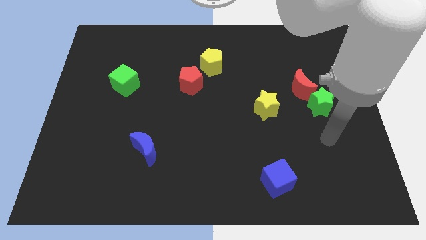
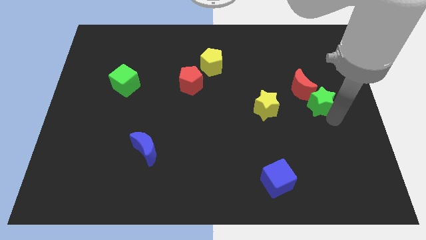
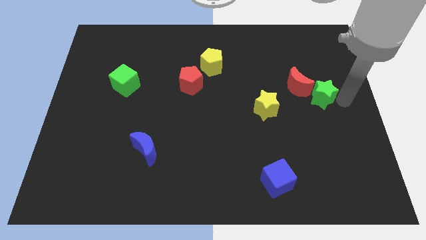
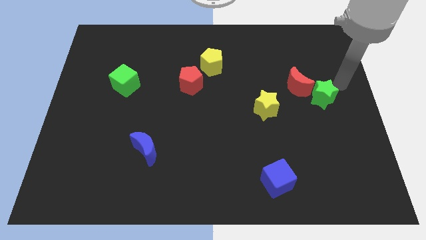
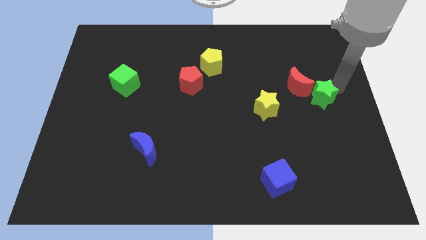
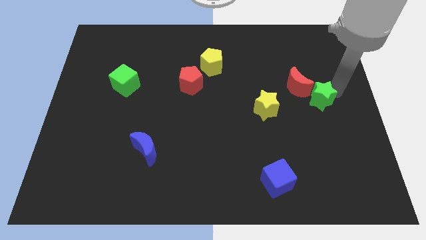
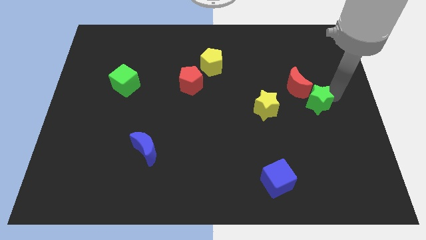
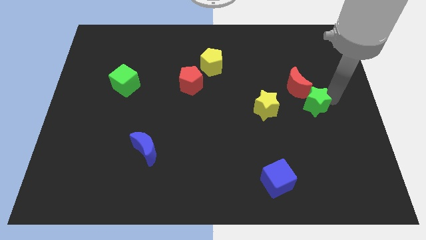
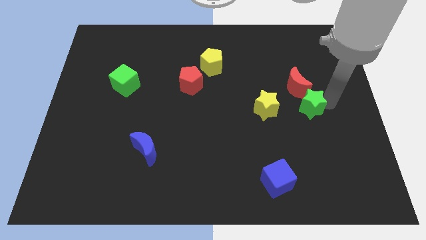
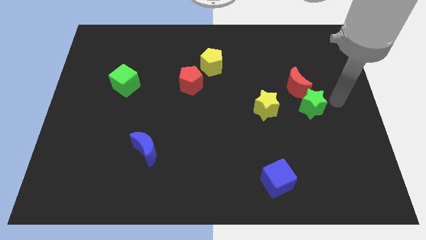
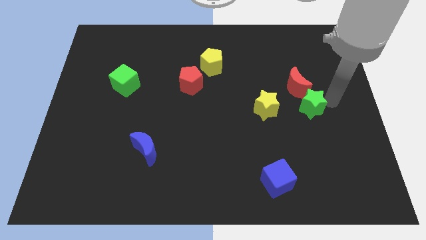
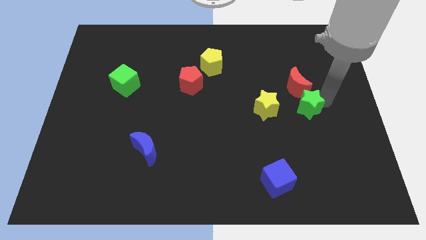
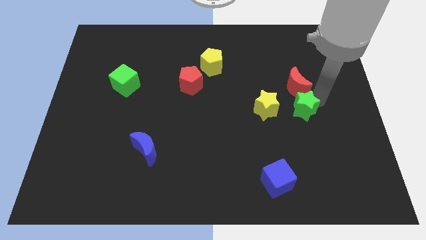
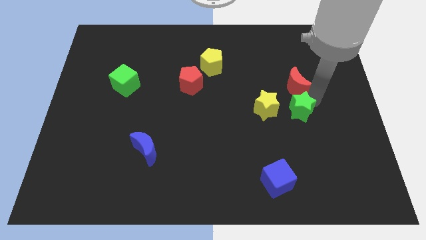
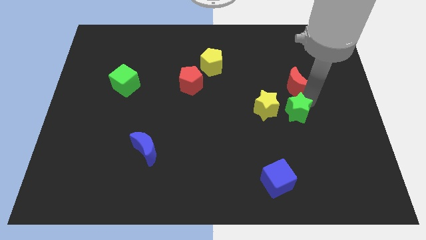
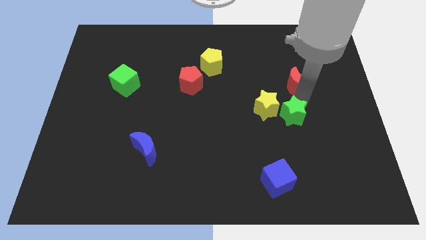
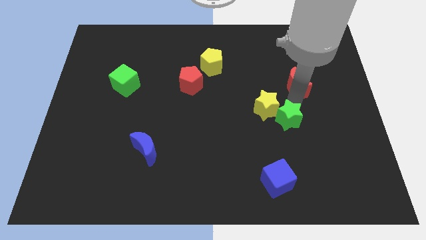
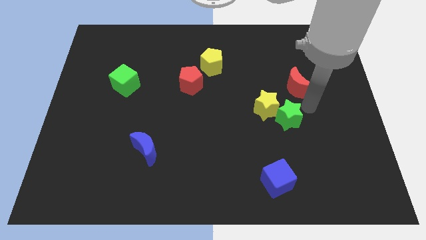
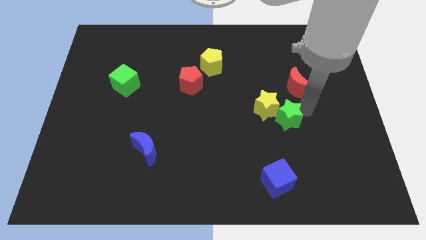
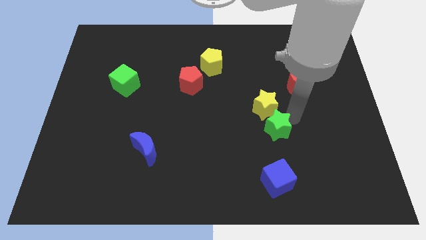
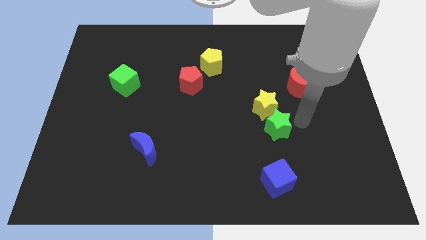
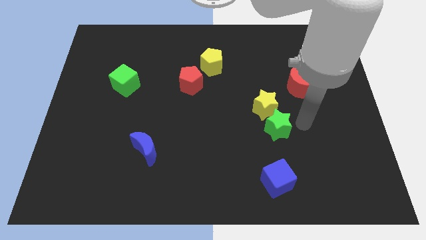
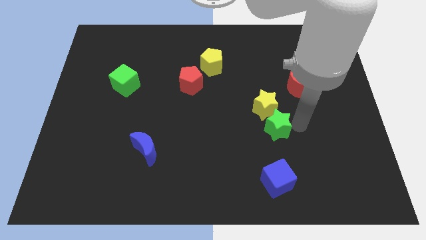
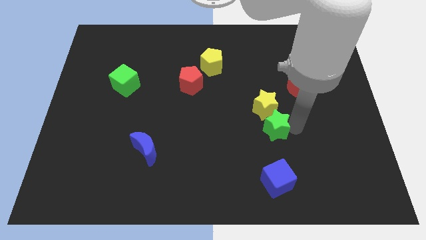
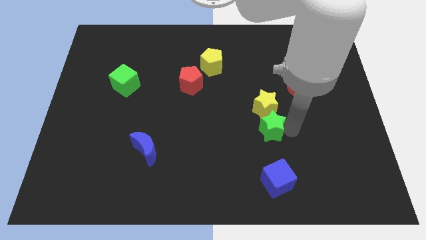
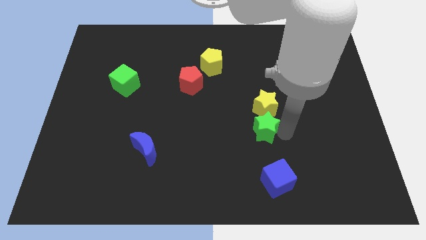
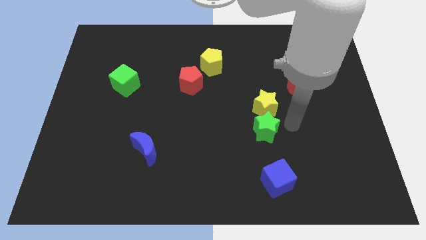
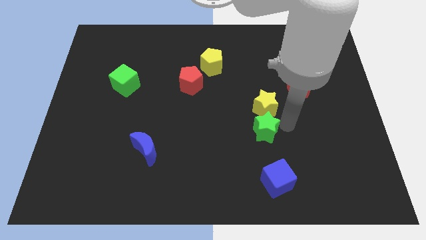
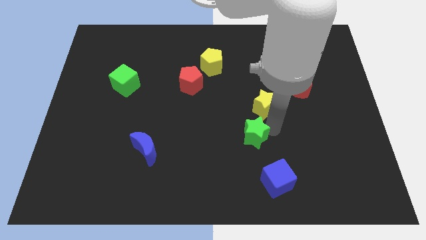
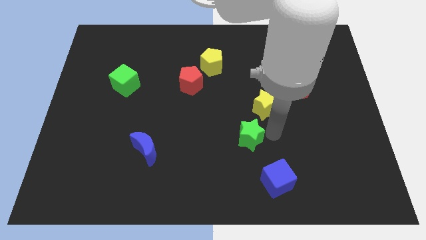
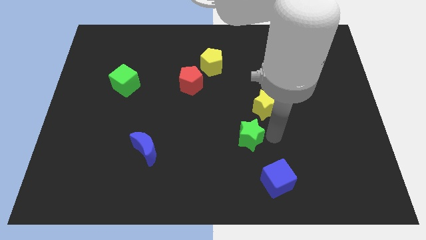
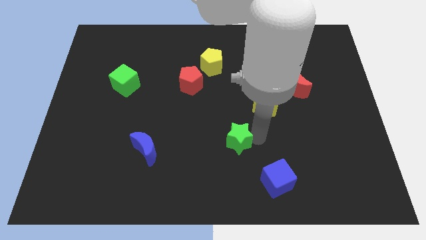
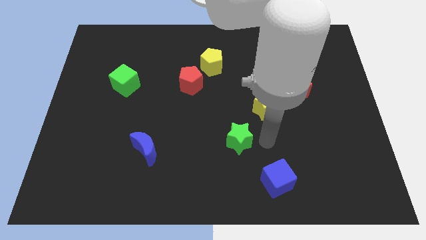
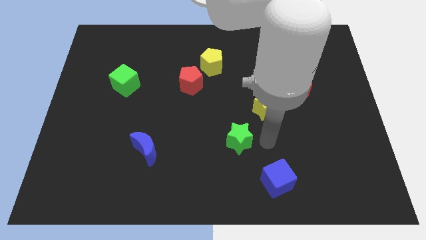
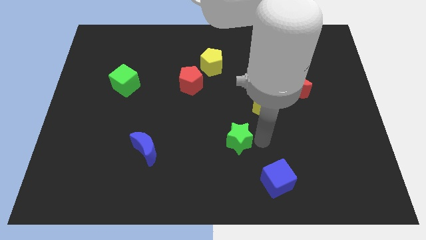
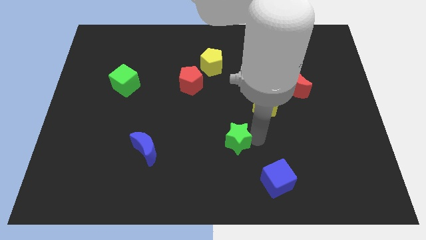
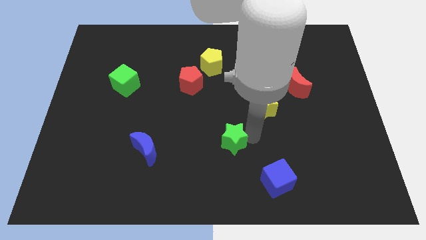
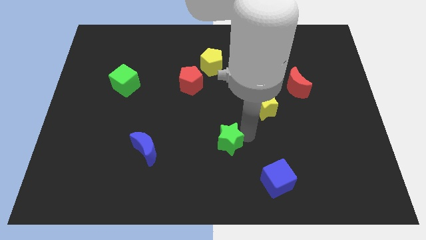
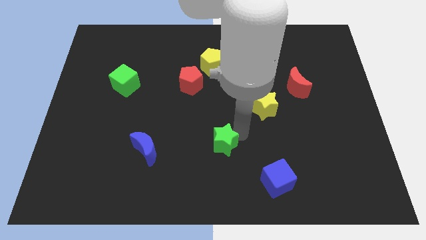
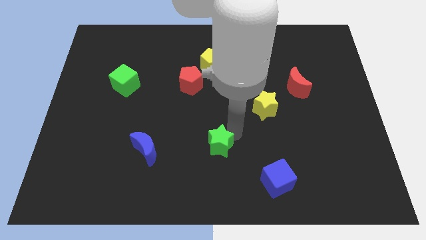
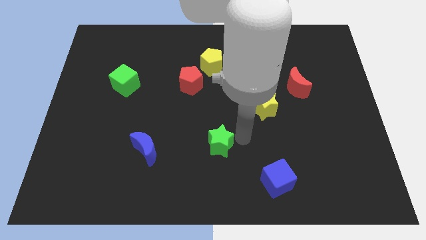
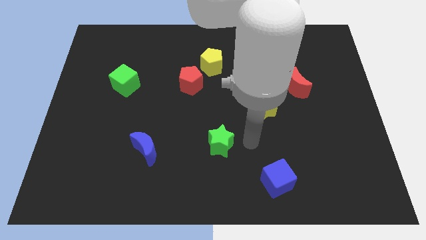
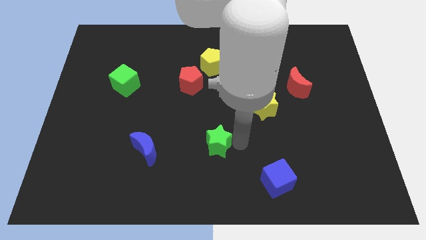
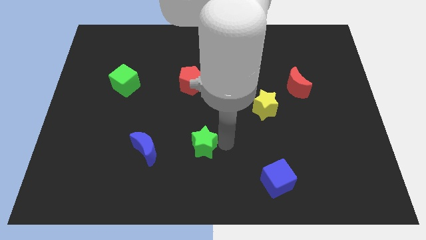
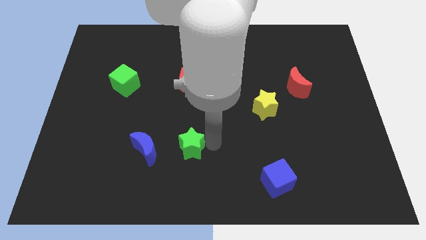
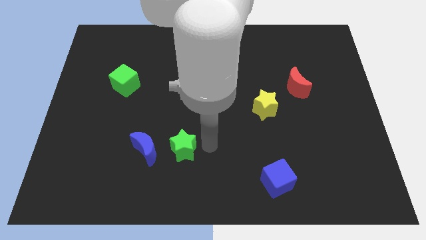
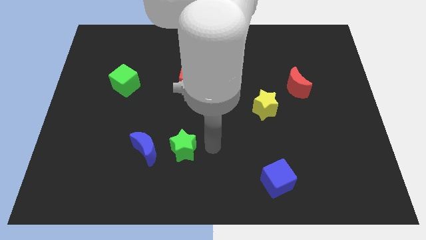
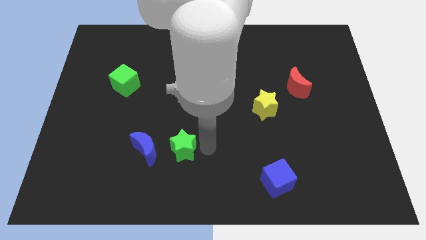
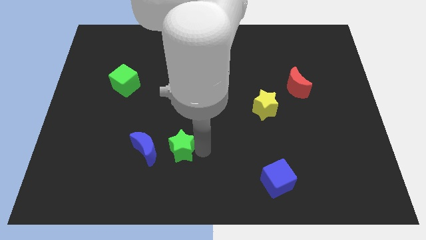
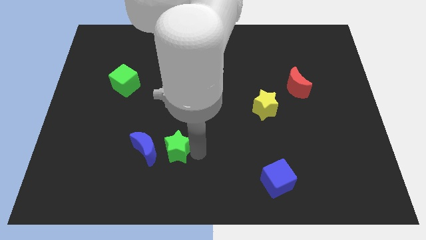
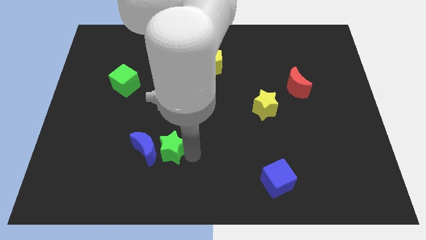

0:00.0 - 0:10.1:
slide the green star to the blue moon

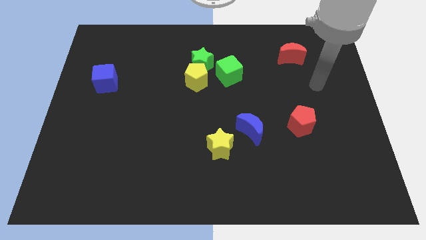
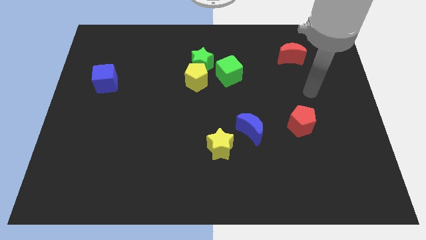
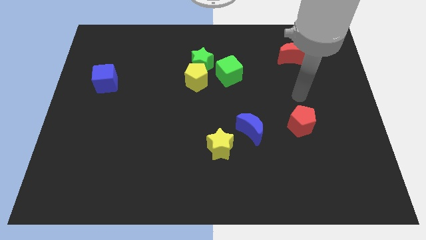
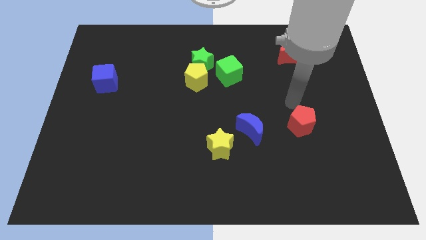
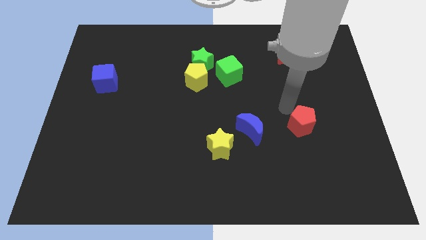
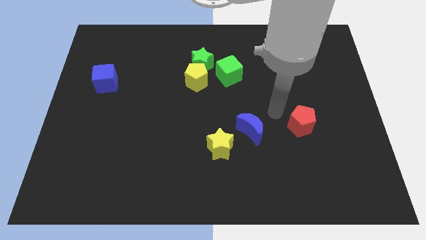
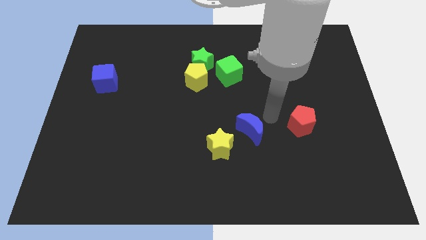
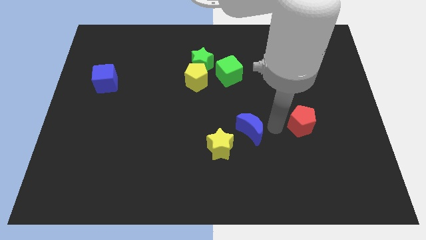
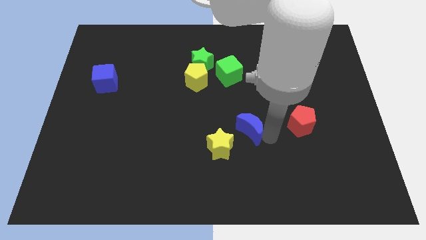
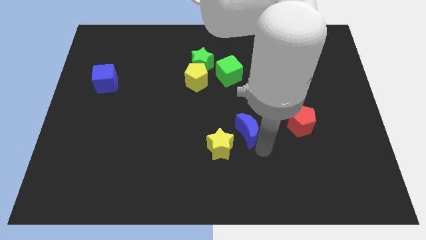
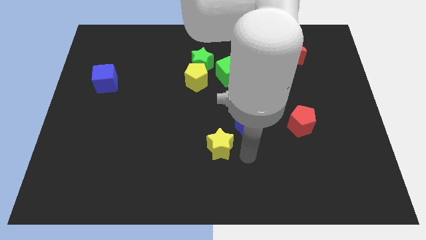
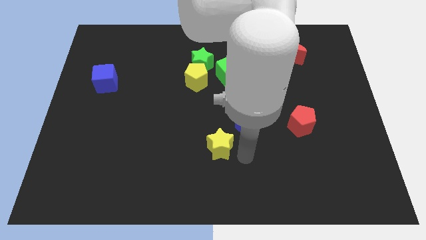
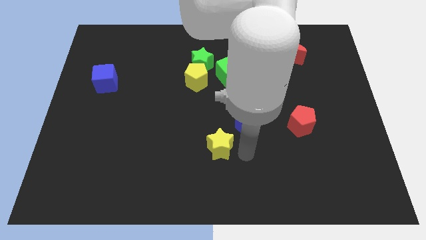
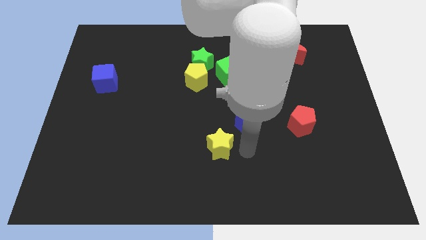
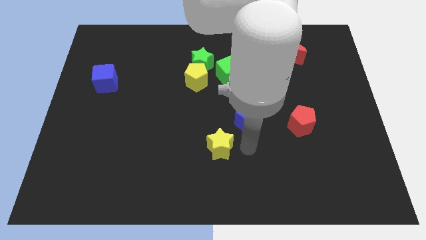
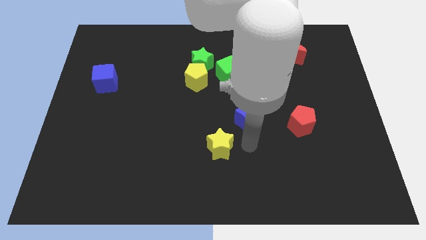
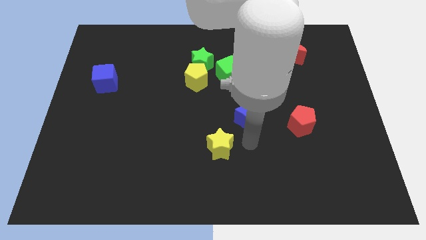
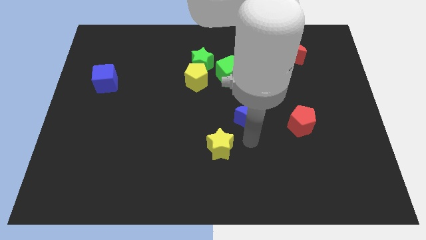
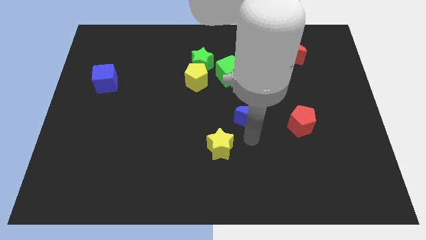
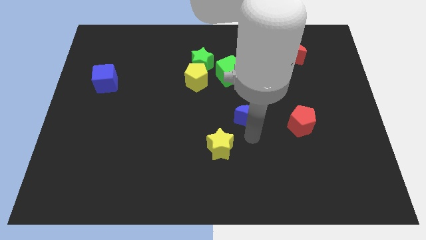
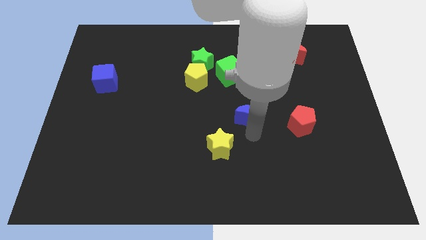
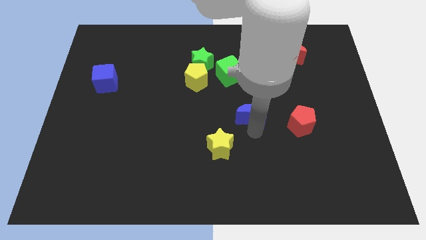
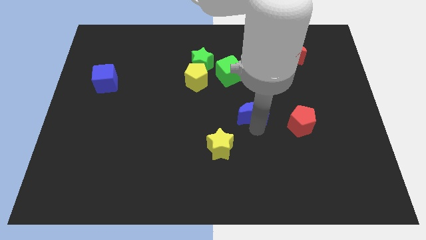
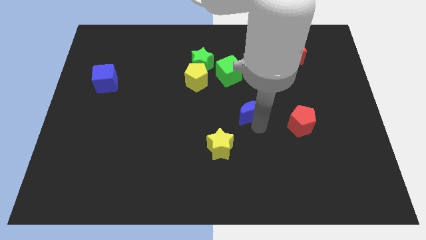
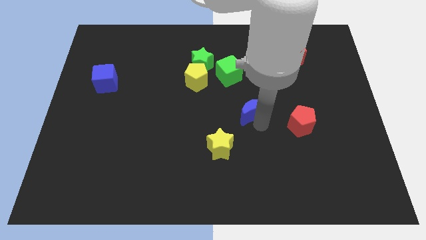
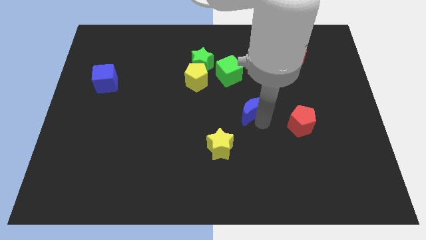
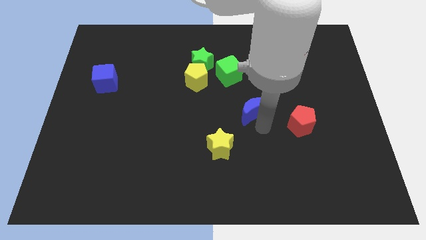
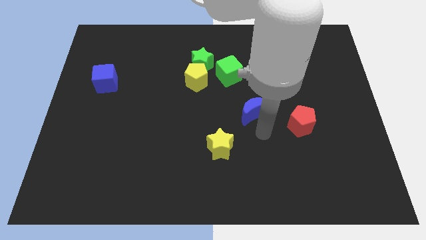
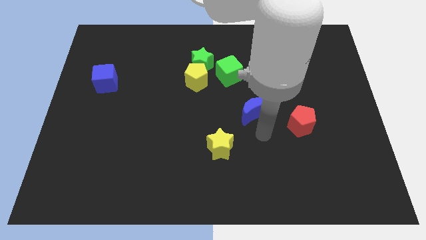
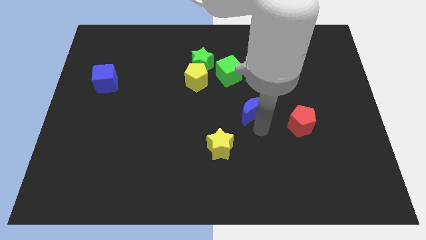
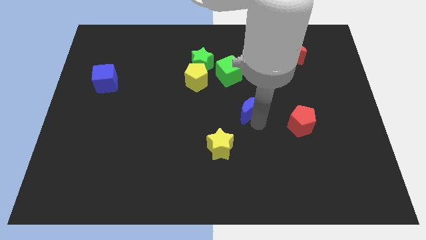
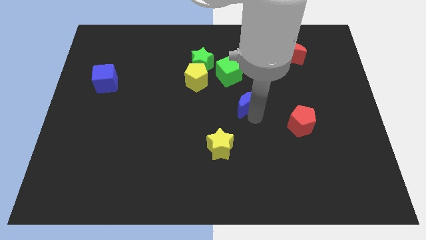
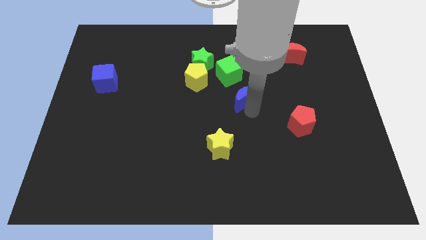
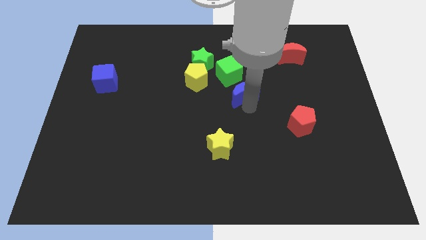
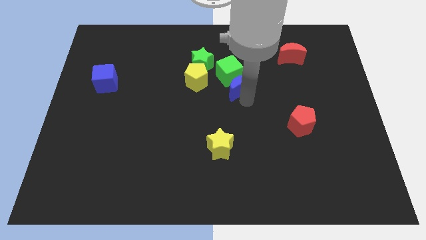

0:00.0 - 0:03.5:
put the blue moon towards the green cube
